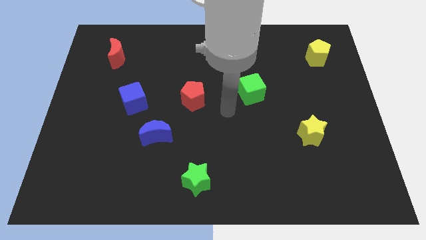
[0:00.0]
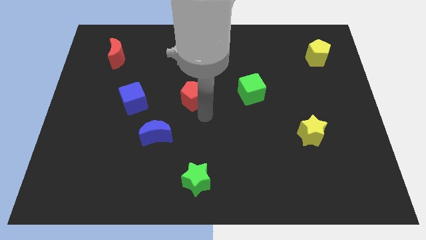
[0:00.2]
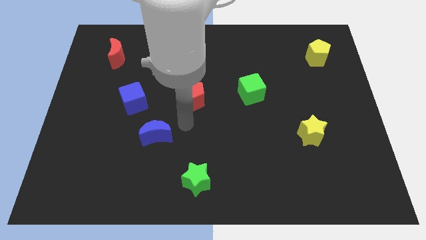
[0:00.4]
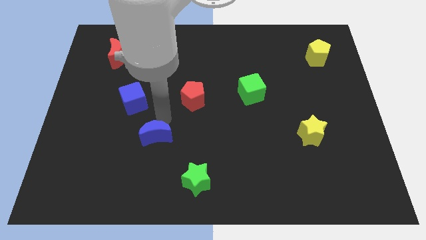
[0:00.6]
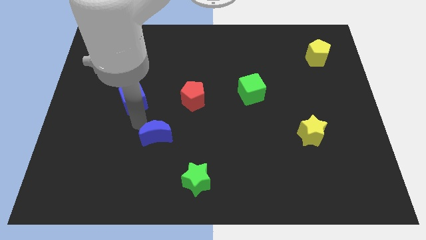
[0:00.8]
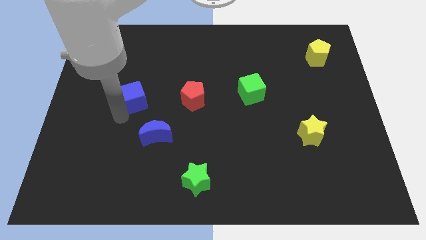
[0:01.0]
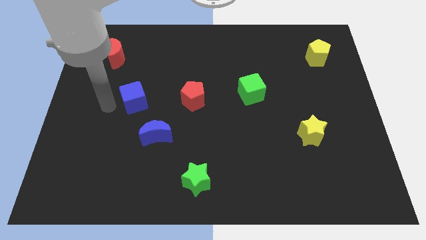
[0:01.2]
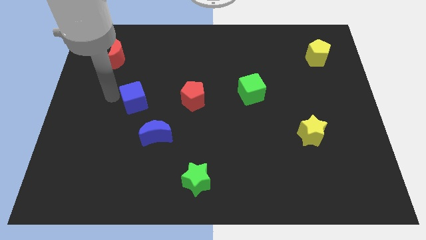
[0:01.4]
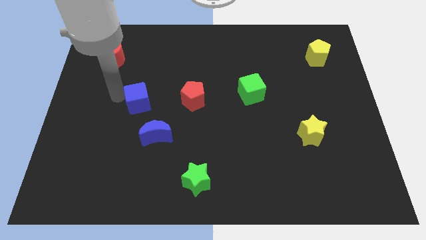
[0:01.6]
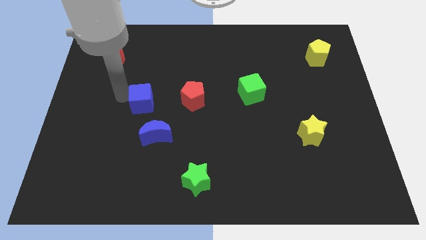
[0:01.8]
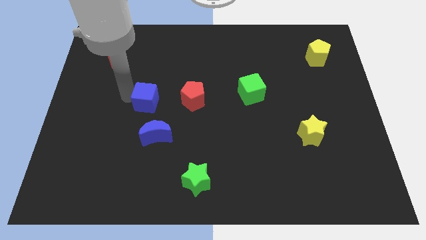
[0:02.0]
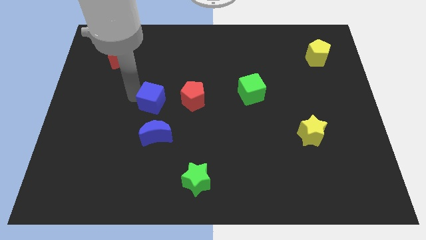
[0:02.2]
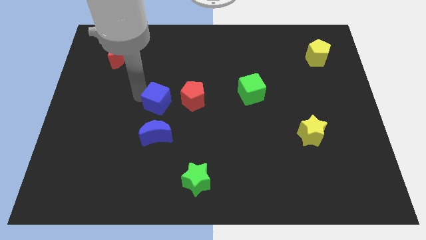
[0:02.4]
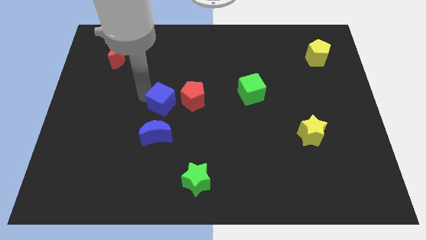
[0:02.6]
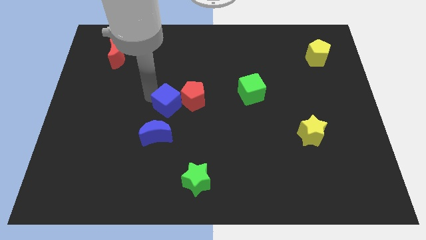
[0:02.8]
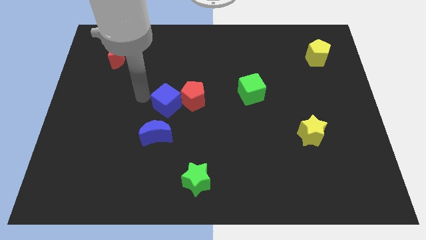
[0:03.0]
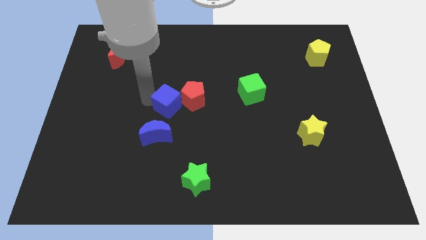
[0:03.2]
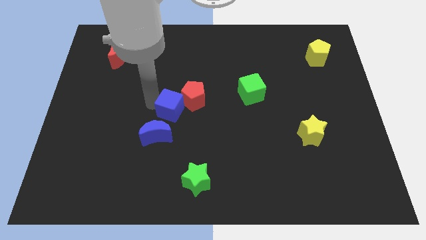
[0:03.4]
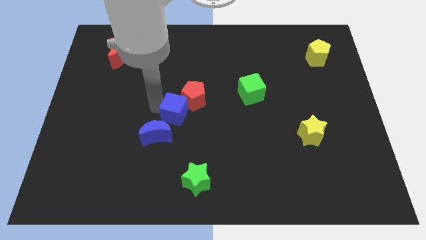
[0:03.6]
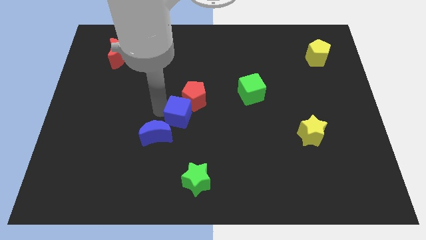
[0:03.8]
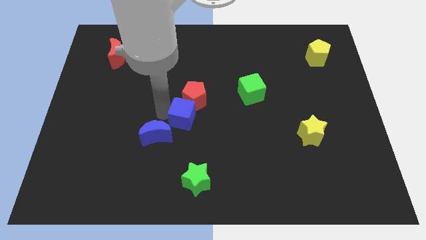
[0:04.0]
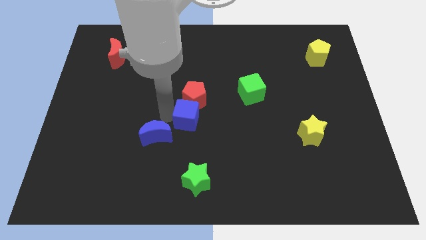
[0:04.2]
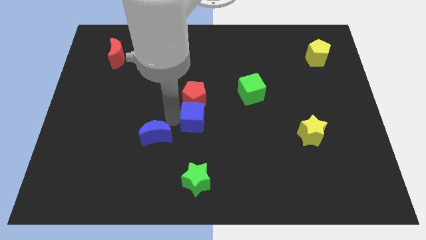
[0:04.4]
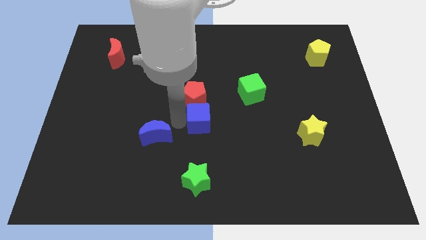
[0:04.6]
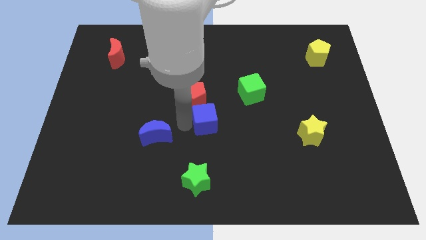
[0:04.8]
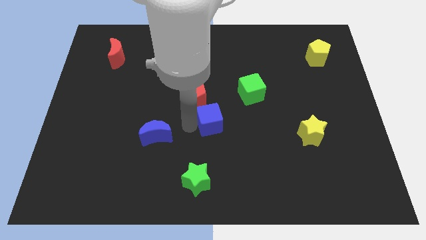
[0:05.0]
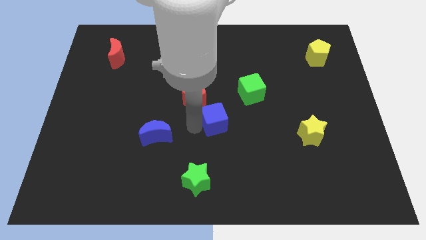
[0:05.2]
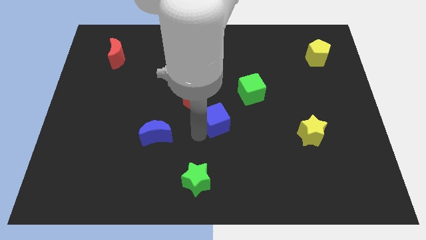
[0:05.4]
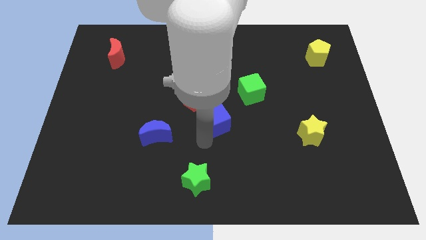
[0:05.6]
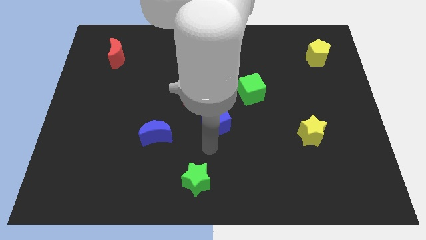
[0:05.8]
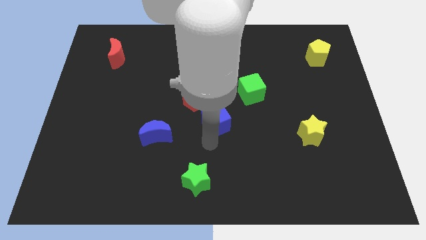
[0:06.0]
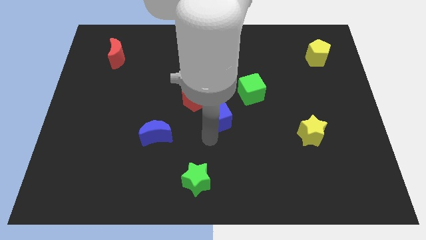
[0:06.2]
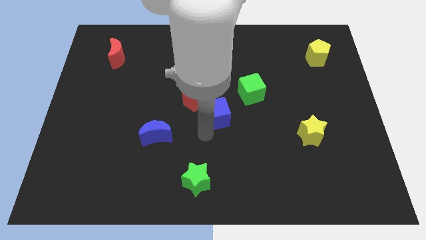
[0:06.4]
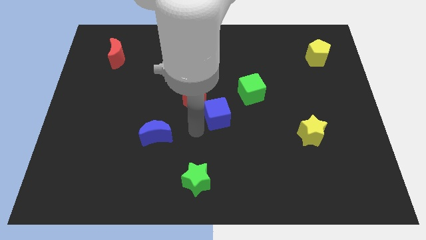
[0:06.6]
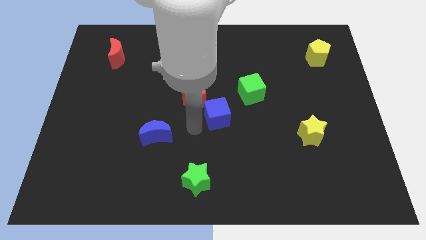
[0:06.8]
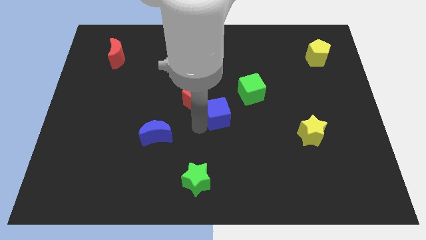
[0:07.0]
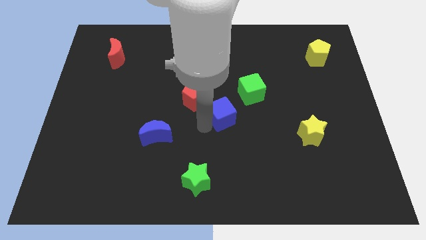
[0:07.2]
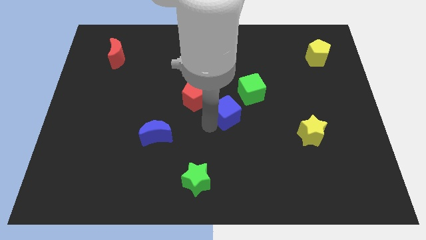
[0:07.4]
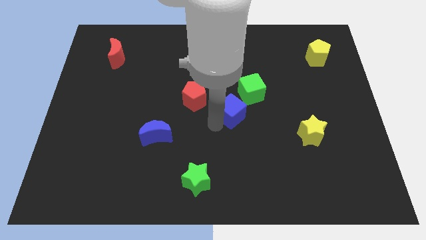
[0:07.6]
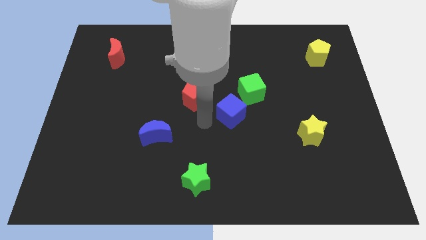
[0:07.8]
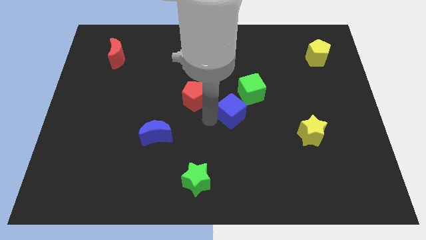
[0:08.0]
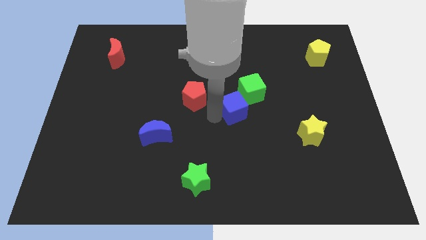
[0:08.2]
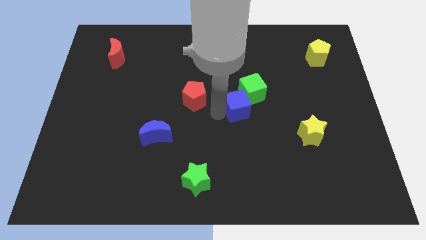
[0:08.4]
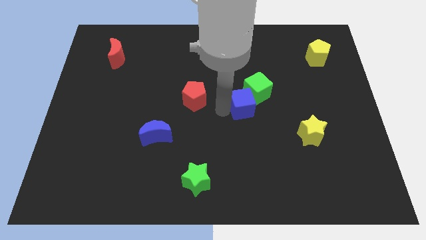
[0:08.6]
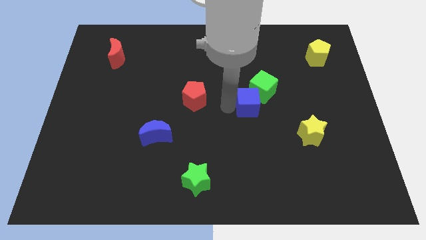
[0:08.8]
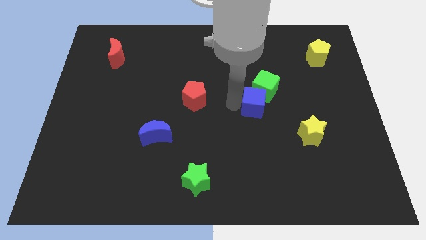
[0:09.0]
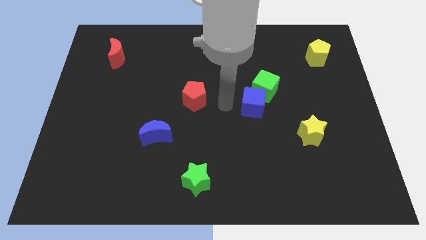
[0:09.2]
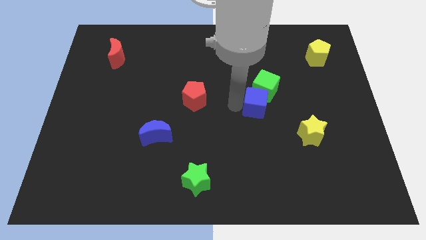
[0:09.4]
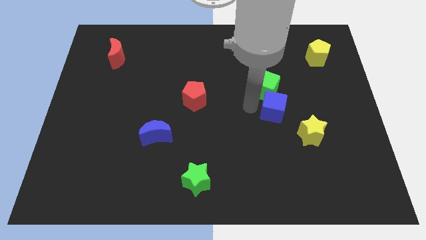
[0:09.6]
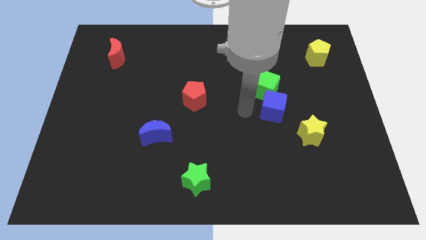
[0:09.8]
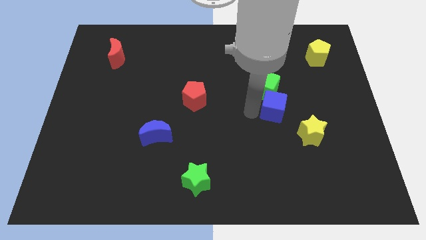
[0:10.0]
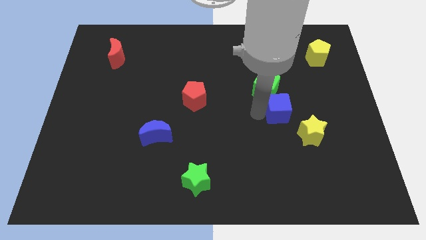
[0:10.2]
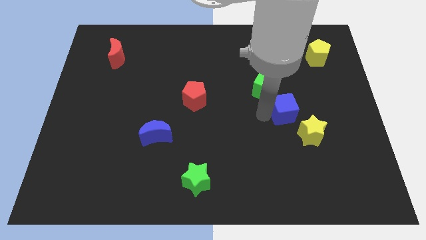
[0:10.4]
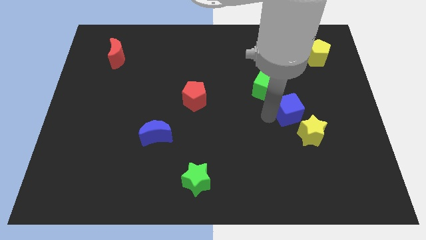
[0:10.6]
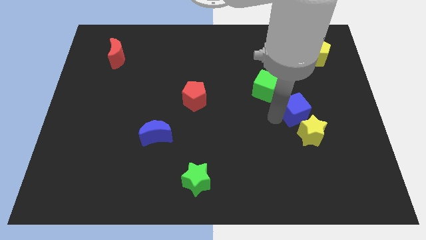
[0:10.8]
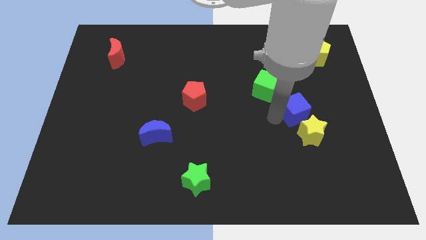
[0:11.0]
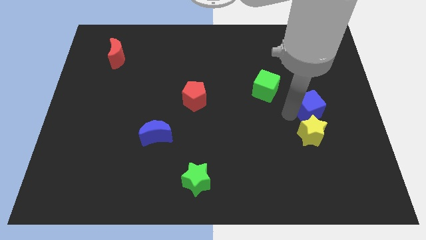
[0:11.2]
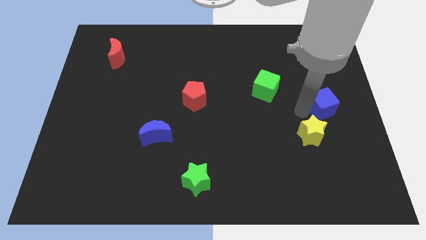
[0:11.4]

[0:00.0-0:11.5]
slide the blue cube to the right side
